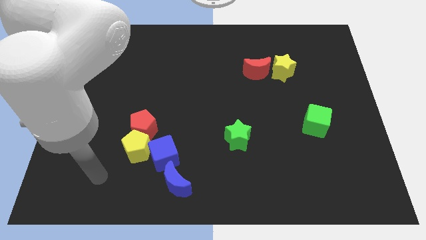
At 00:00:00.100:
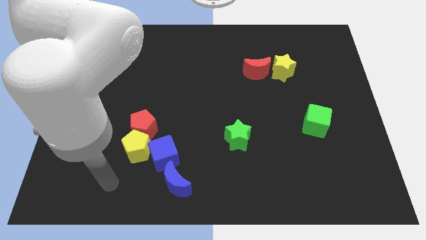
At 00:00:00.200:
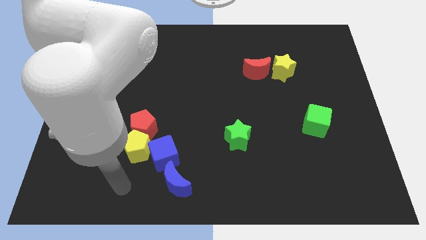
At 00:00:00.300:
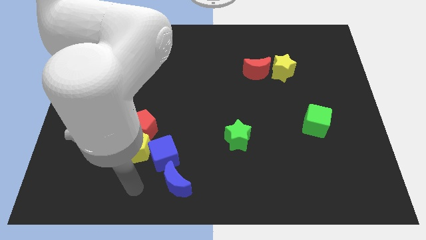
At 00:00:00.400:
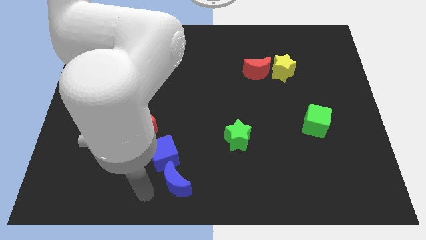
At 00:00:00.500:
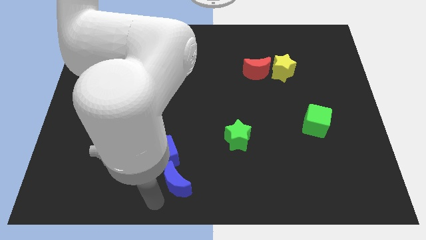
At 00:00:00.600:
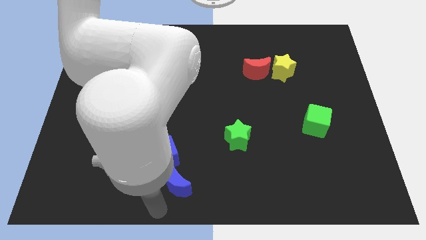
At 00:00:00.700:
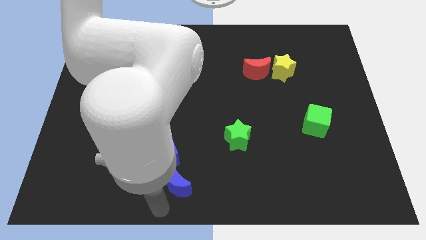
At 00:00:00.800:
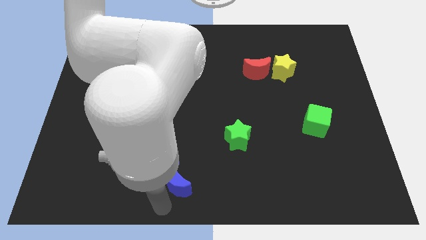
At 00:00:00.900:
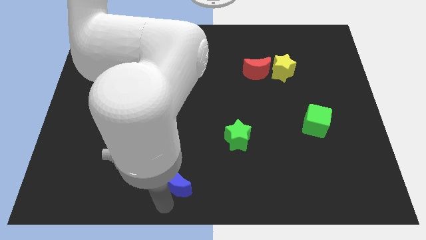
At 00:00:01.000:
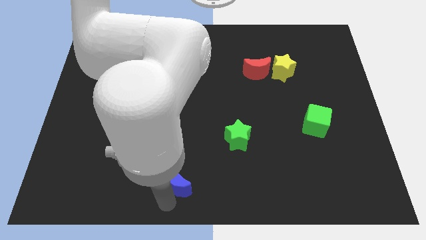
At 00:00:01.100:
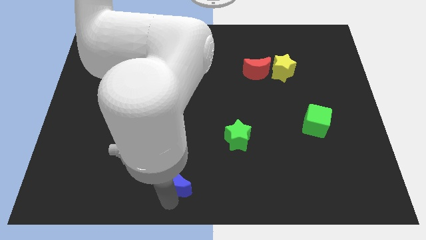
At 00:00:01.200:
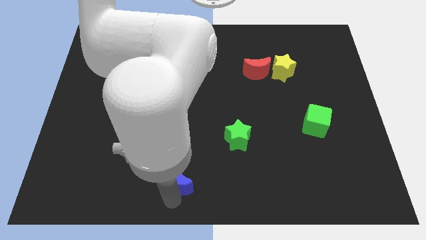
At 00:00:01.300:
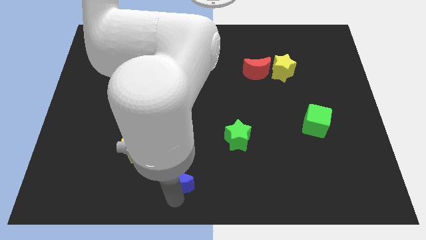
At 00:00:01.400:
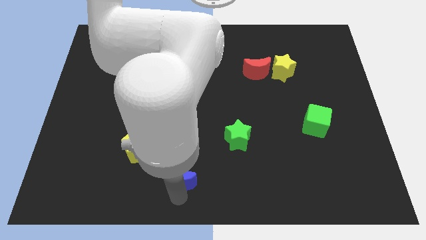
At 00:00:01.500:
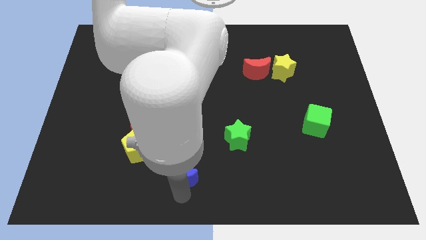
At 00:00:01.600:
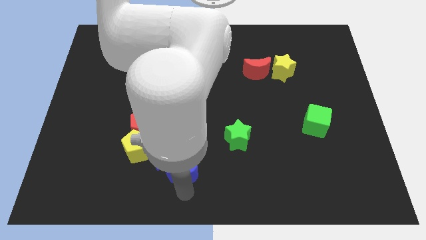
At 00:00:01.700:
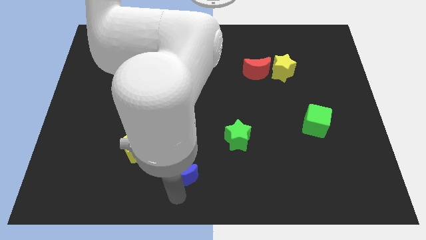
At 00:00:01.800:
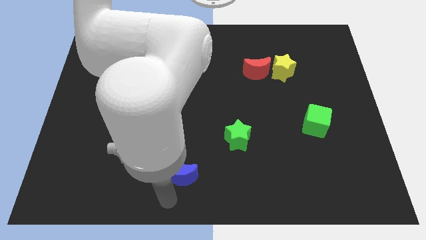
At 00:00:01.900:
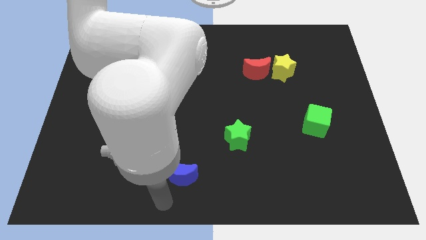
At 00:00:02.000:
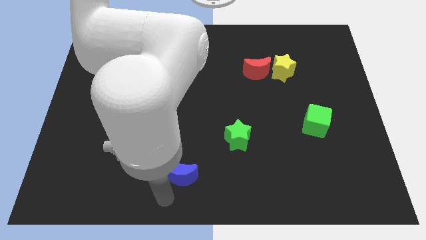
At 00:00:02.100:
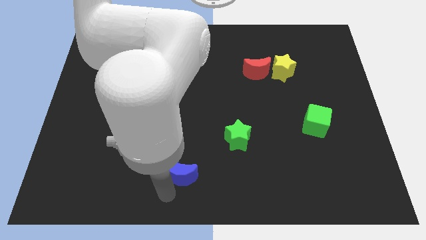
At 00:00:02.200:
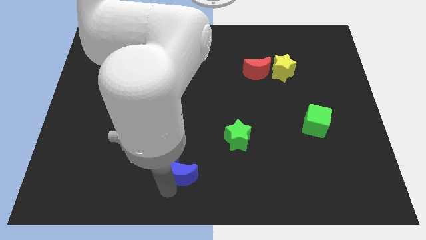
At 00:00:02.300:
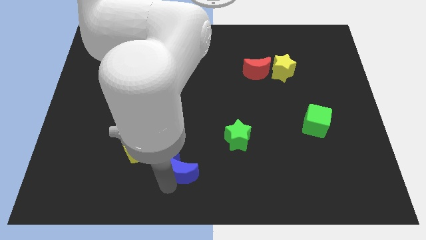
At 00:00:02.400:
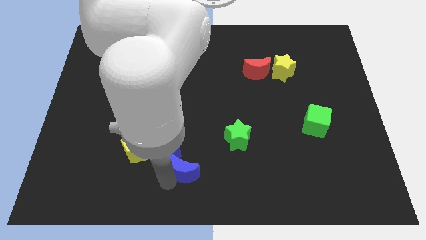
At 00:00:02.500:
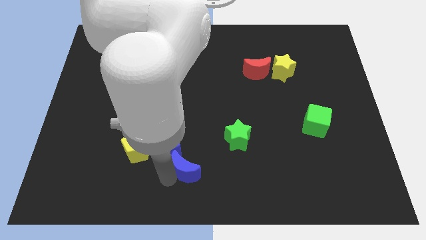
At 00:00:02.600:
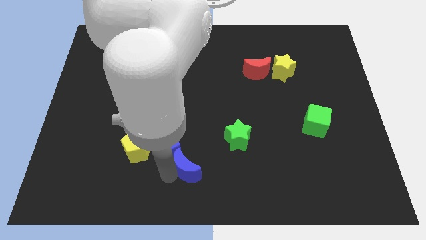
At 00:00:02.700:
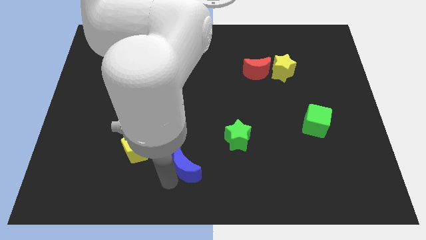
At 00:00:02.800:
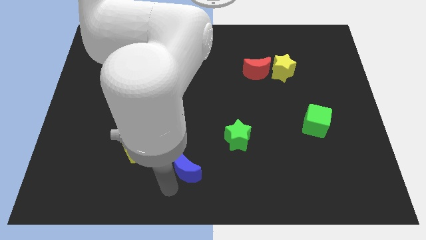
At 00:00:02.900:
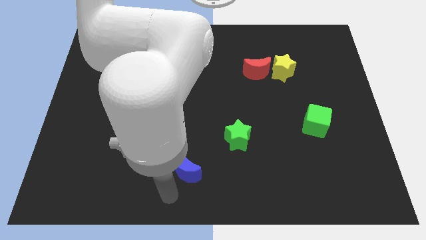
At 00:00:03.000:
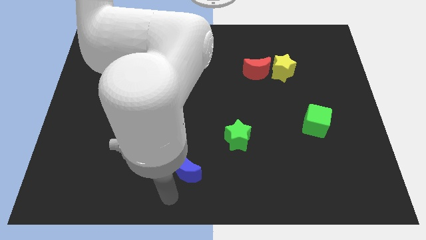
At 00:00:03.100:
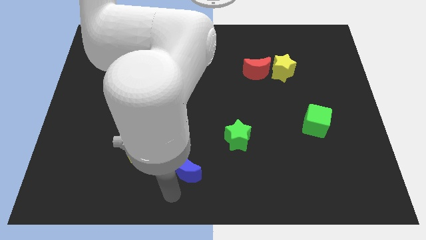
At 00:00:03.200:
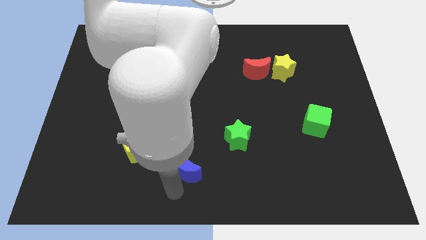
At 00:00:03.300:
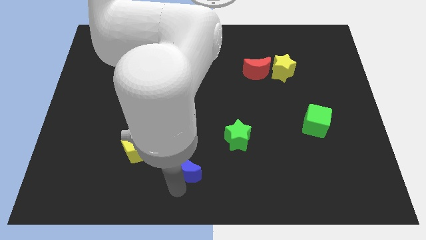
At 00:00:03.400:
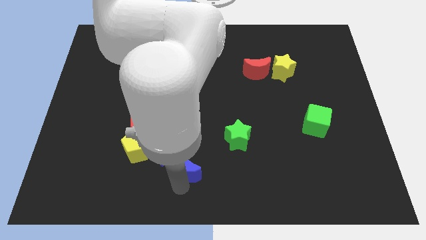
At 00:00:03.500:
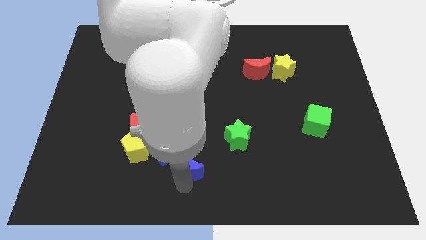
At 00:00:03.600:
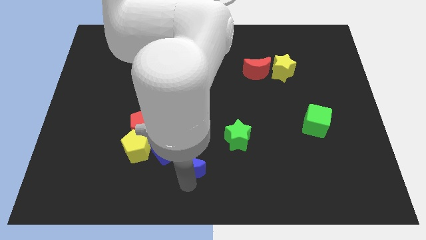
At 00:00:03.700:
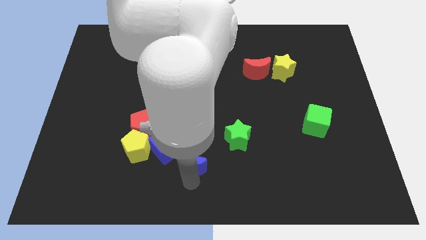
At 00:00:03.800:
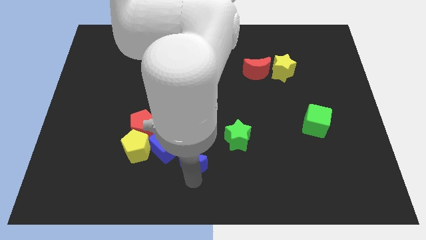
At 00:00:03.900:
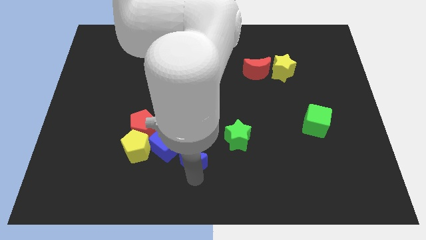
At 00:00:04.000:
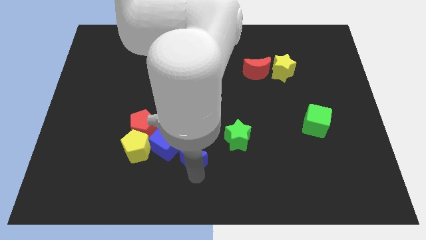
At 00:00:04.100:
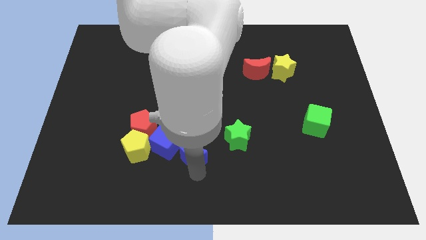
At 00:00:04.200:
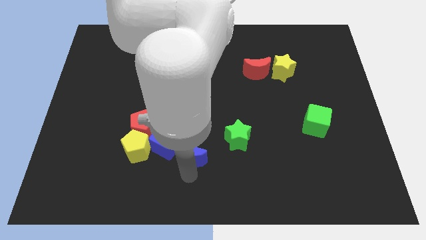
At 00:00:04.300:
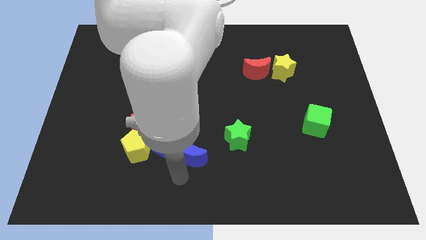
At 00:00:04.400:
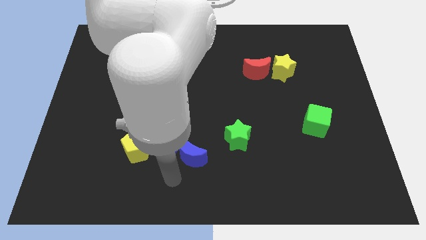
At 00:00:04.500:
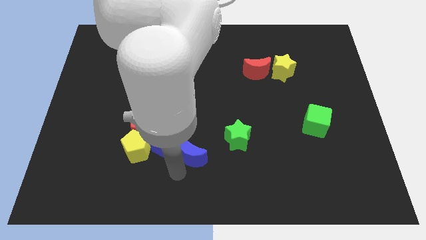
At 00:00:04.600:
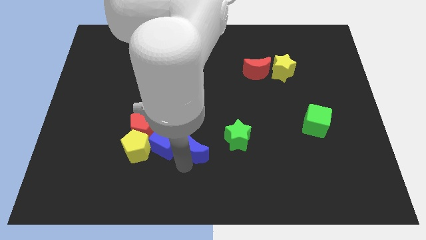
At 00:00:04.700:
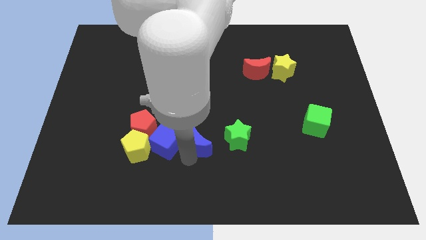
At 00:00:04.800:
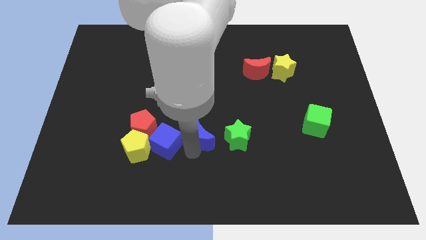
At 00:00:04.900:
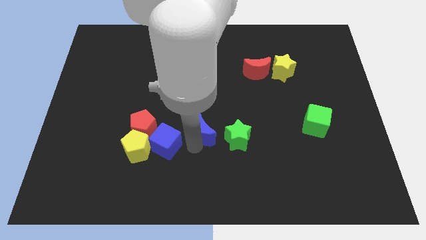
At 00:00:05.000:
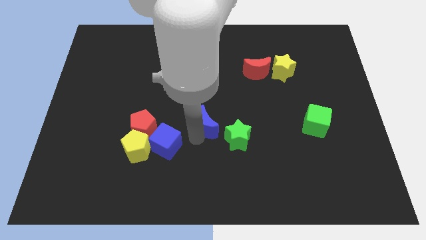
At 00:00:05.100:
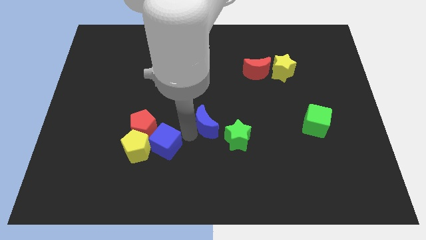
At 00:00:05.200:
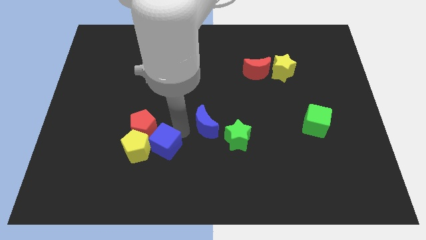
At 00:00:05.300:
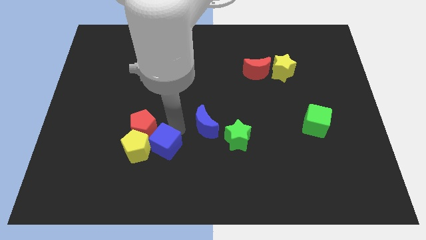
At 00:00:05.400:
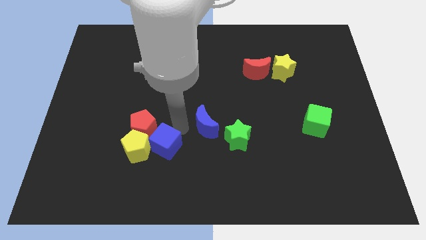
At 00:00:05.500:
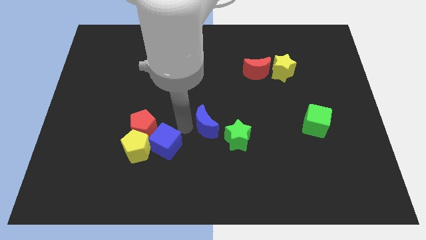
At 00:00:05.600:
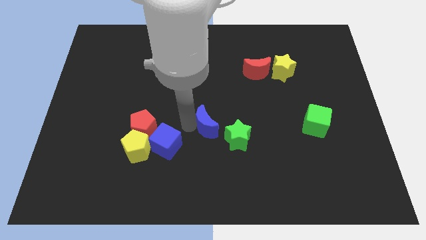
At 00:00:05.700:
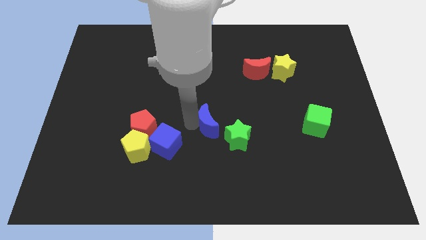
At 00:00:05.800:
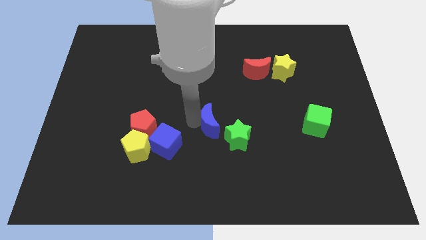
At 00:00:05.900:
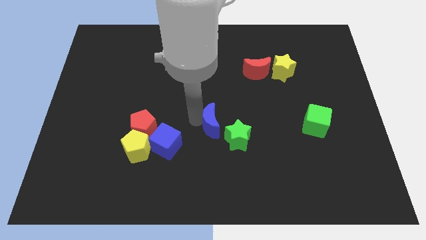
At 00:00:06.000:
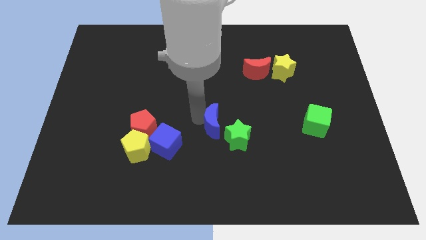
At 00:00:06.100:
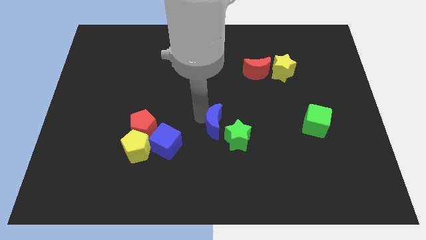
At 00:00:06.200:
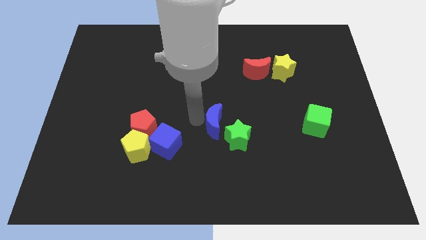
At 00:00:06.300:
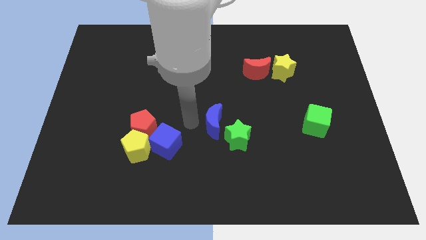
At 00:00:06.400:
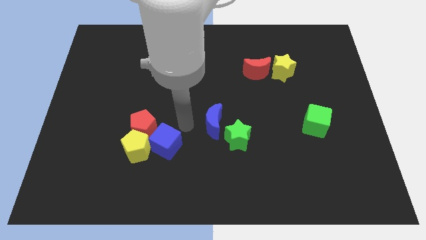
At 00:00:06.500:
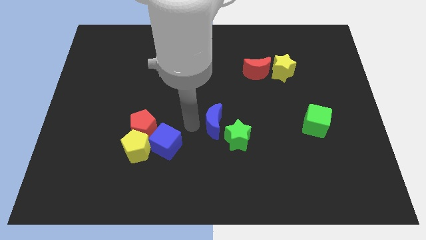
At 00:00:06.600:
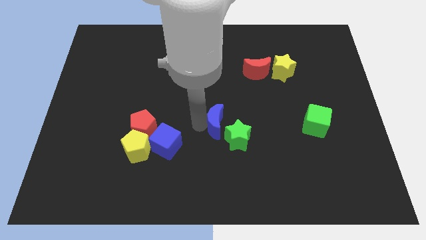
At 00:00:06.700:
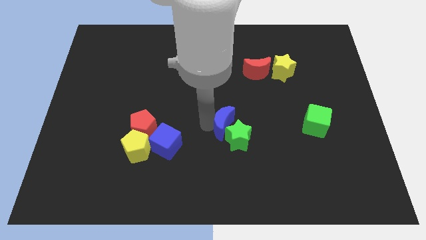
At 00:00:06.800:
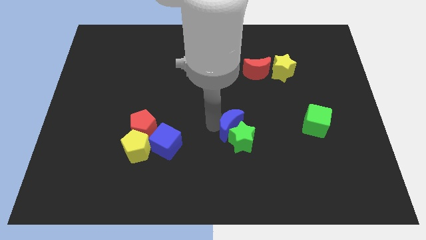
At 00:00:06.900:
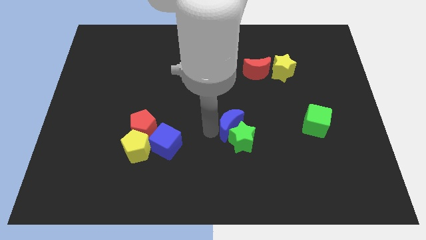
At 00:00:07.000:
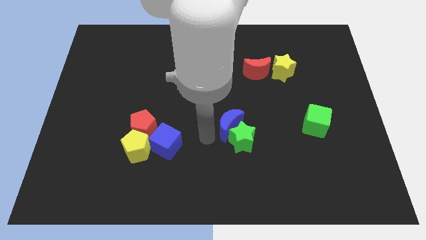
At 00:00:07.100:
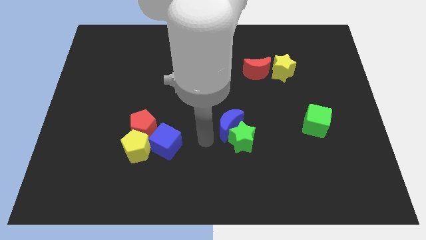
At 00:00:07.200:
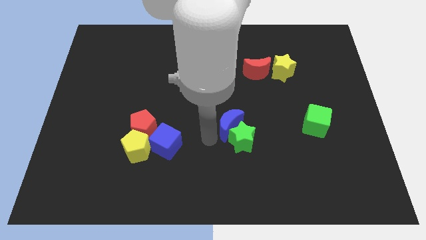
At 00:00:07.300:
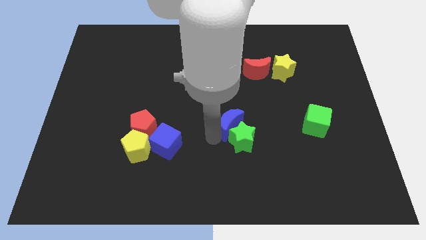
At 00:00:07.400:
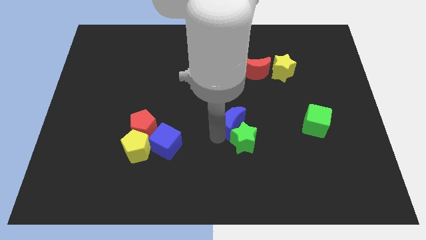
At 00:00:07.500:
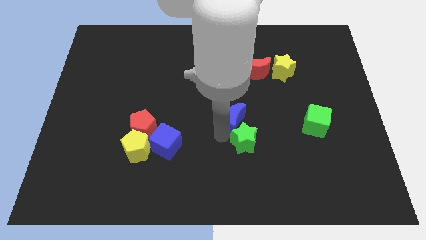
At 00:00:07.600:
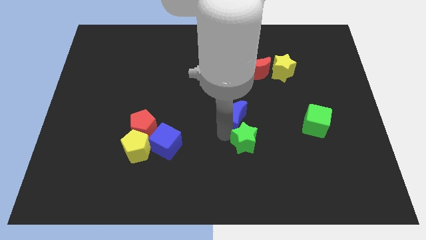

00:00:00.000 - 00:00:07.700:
move the blue moon up and then to the right
